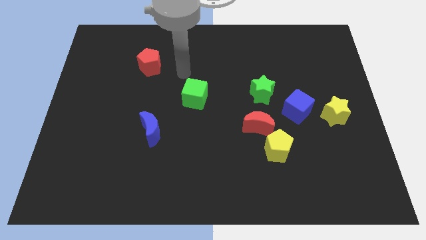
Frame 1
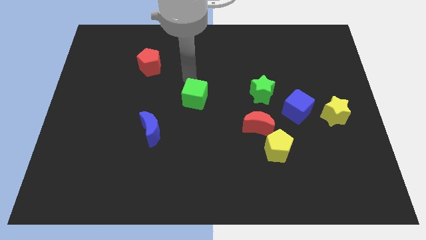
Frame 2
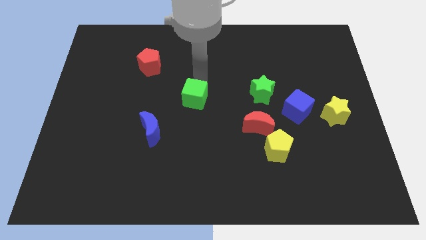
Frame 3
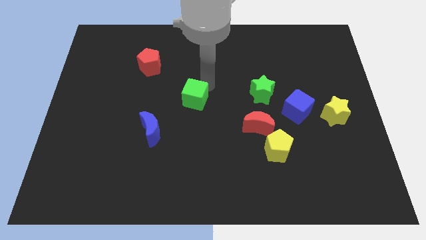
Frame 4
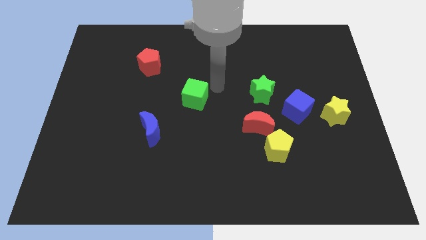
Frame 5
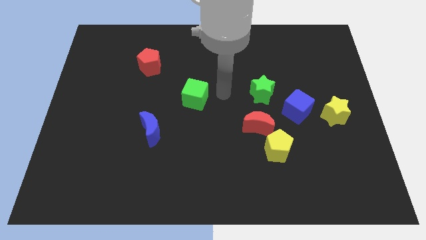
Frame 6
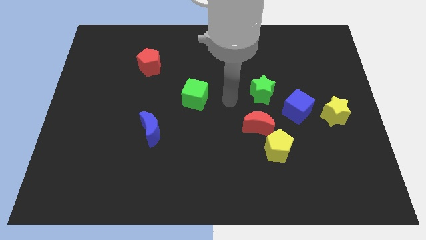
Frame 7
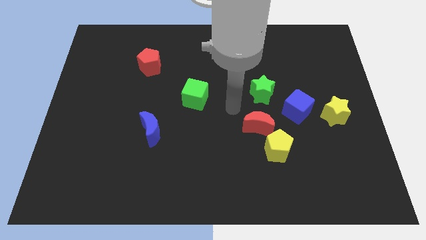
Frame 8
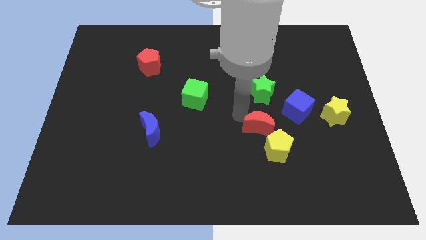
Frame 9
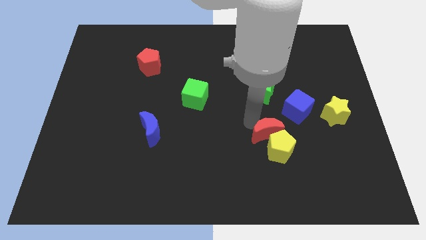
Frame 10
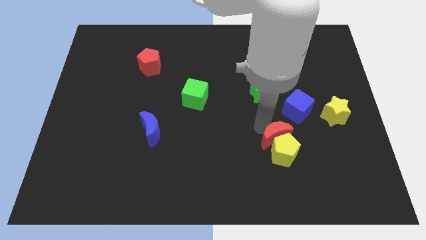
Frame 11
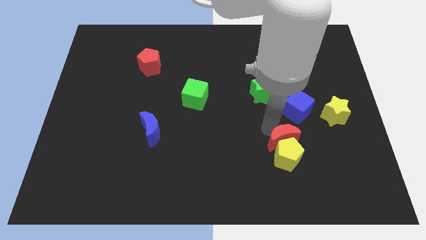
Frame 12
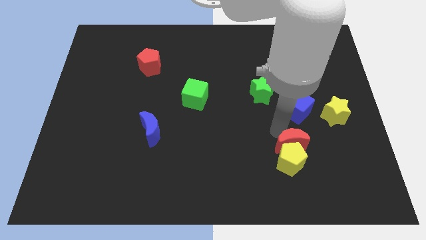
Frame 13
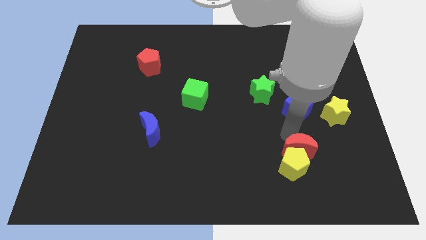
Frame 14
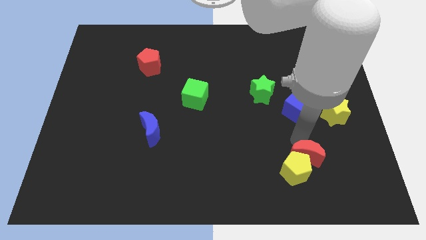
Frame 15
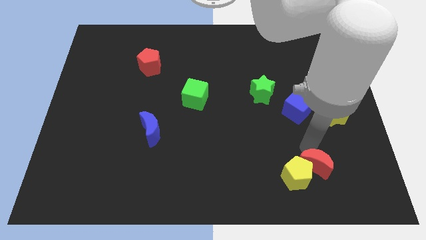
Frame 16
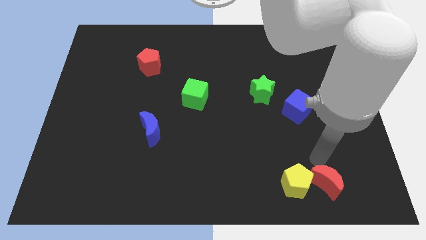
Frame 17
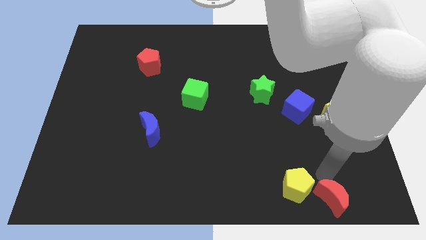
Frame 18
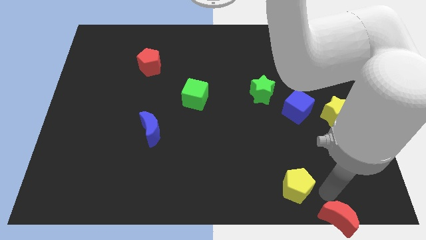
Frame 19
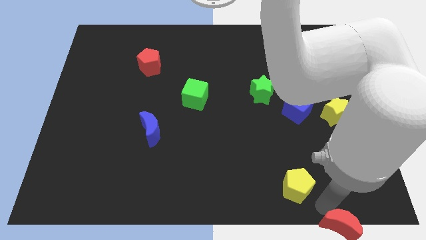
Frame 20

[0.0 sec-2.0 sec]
move the yellow pentagon away from the red moon

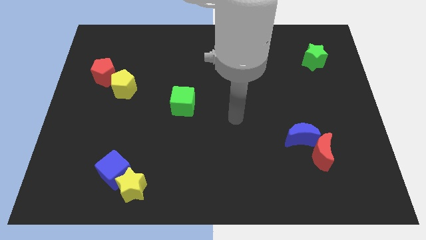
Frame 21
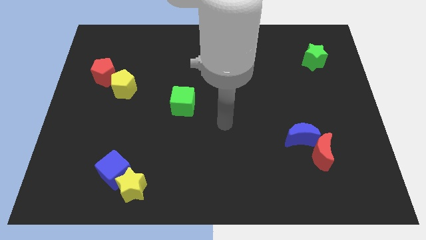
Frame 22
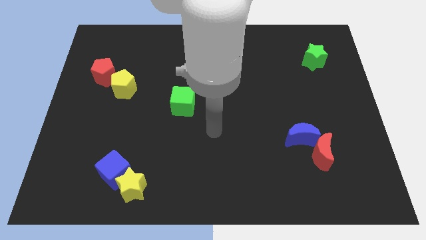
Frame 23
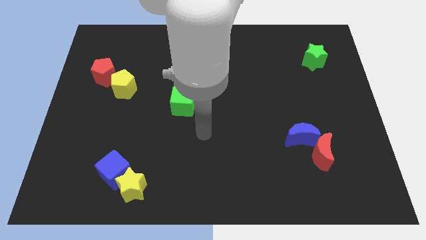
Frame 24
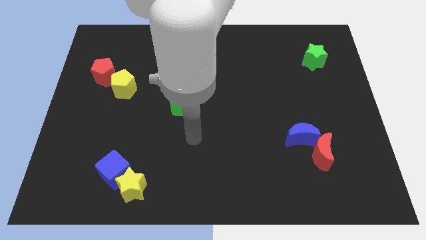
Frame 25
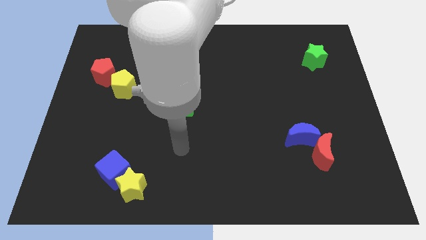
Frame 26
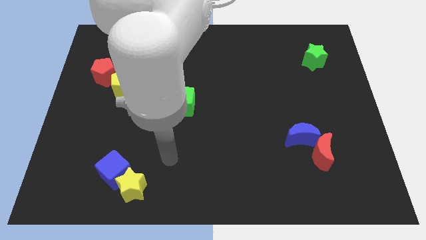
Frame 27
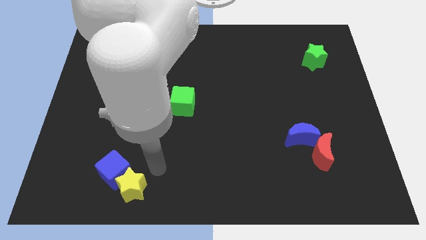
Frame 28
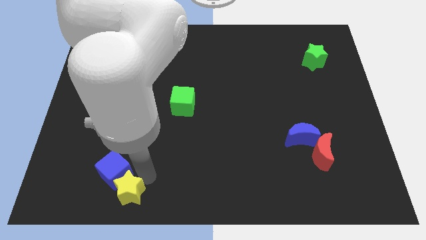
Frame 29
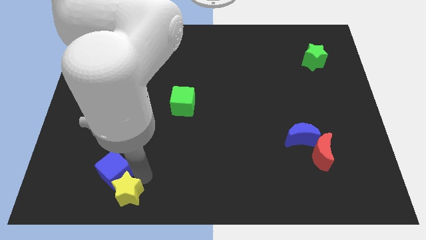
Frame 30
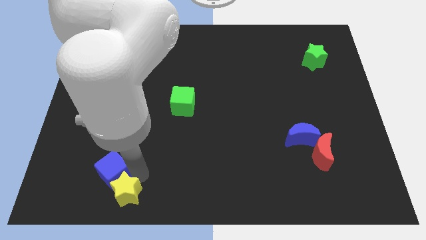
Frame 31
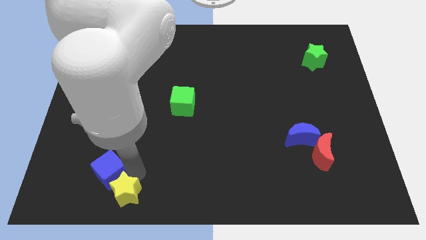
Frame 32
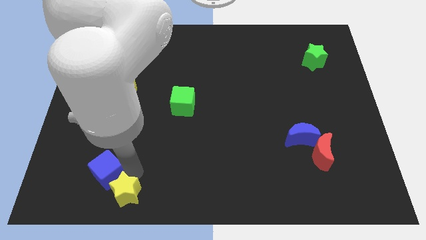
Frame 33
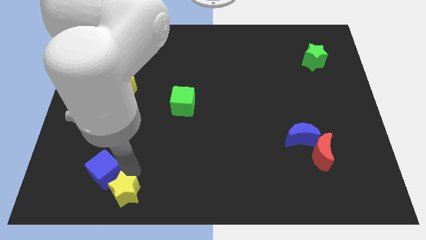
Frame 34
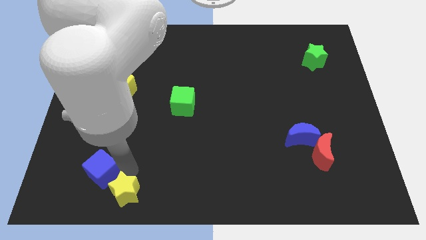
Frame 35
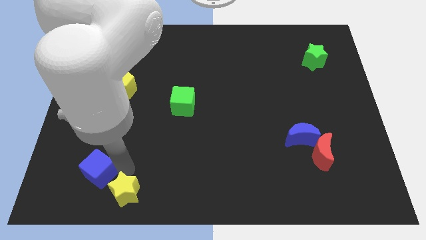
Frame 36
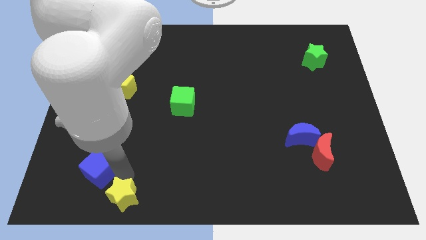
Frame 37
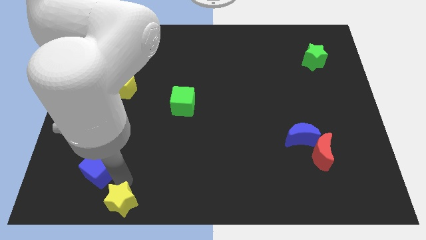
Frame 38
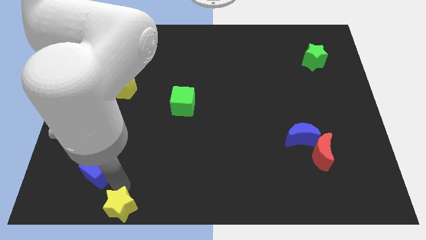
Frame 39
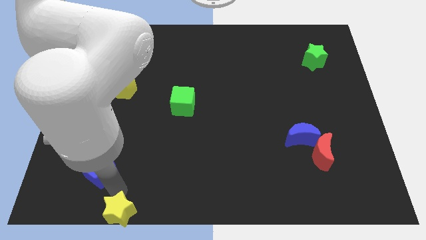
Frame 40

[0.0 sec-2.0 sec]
pull the blue cube apart from the yellow star

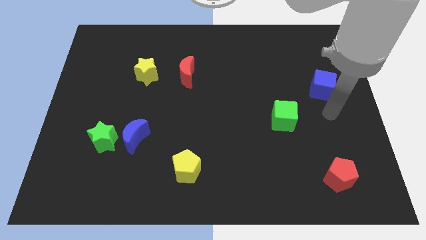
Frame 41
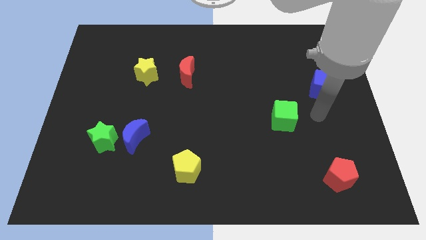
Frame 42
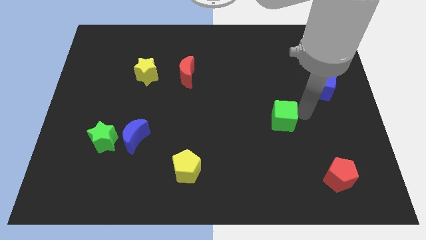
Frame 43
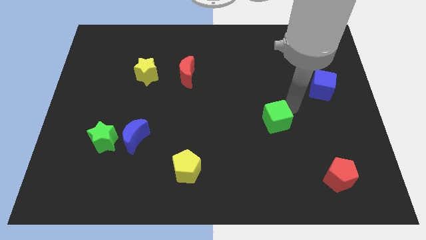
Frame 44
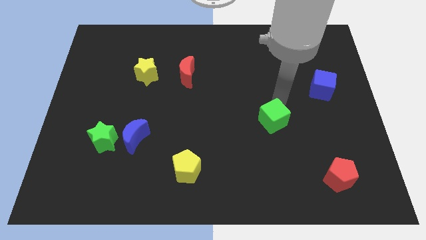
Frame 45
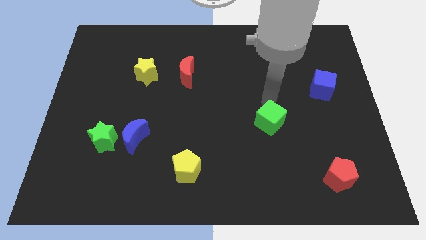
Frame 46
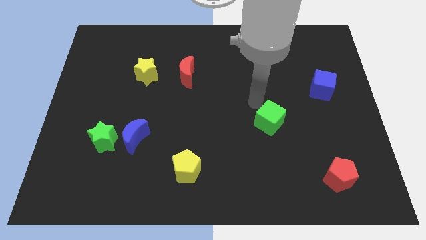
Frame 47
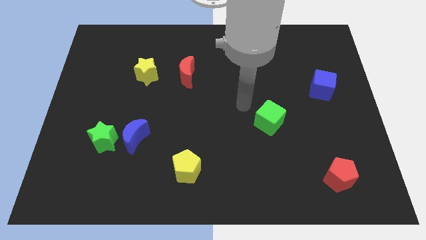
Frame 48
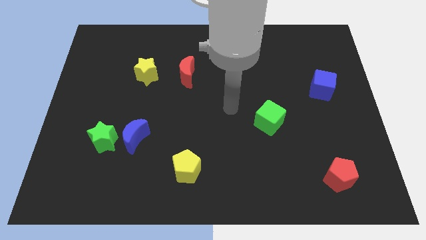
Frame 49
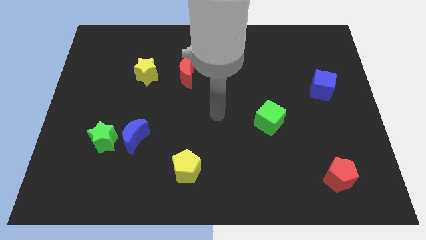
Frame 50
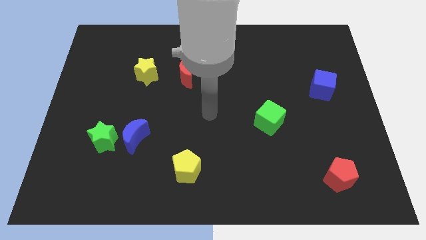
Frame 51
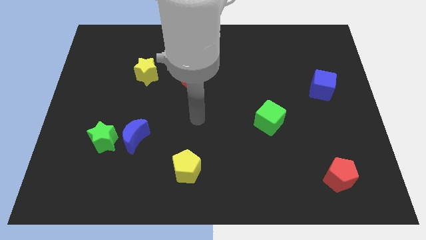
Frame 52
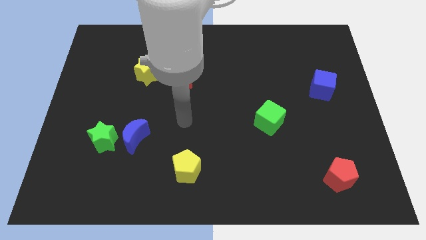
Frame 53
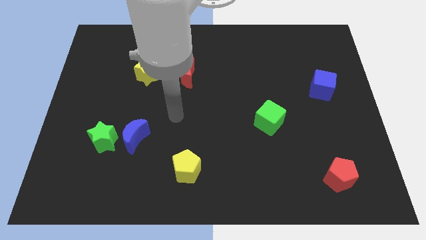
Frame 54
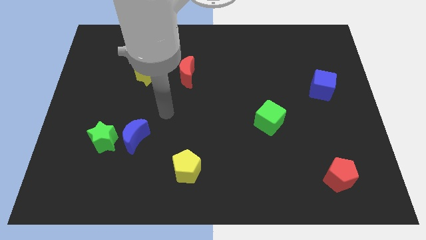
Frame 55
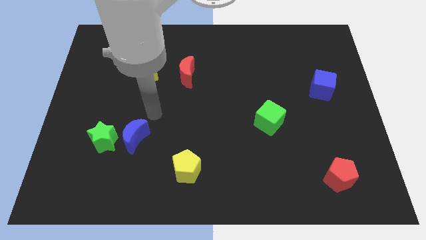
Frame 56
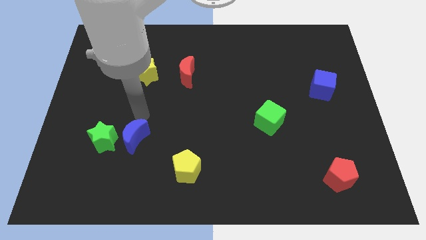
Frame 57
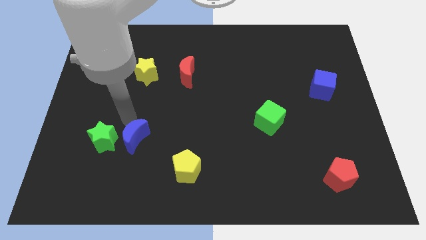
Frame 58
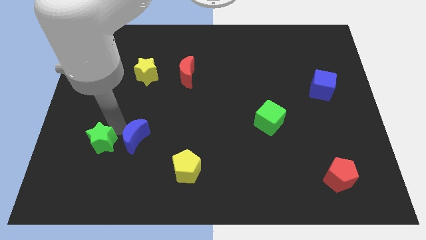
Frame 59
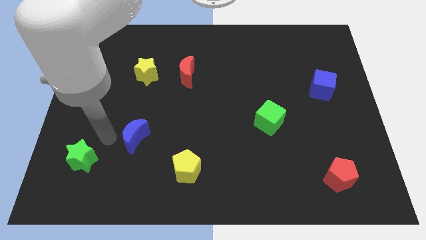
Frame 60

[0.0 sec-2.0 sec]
move the blue moon away from the green star

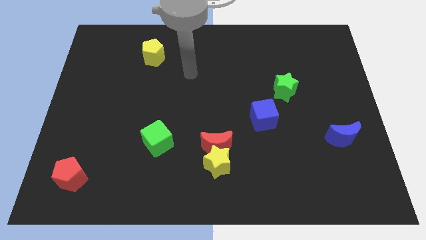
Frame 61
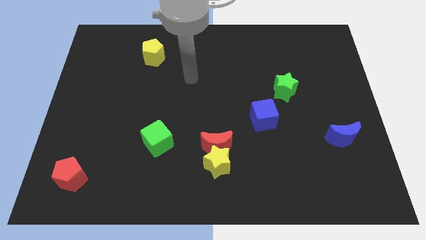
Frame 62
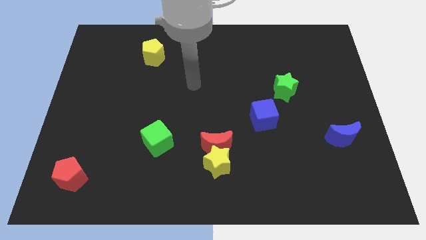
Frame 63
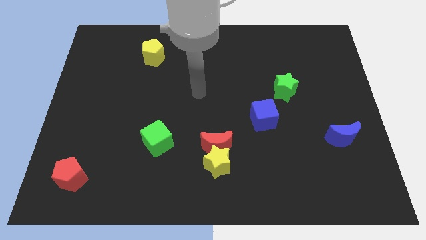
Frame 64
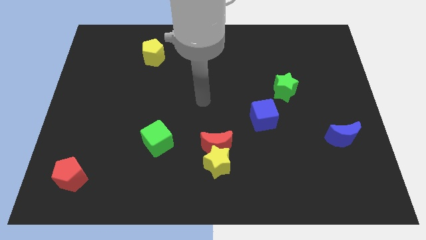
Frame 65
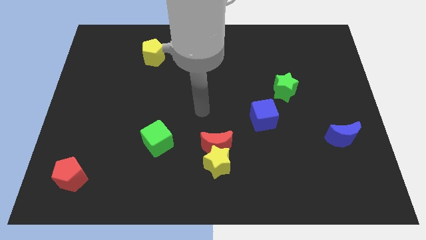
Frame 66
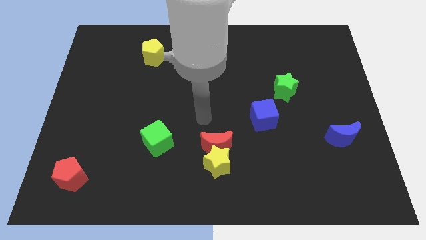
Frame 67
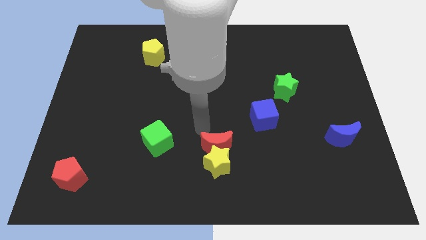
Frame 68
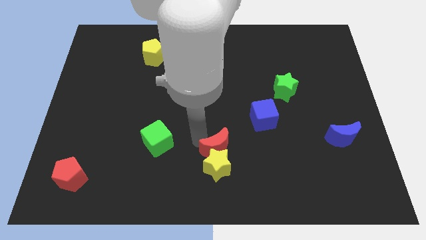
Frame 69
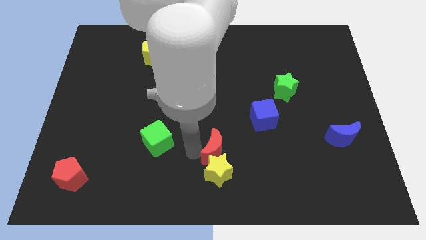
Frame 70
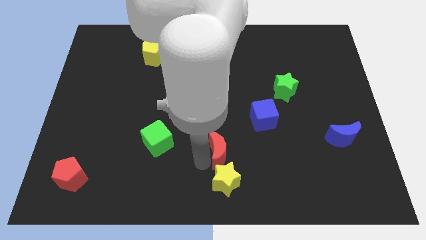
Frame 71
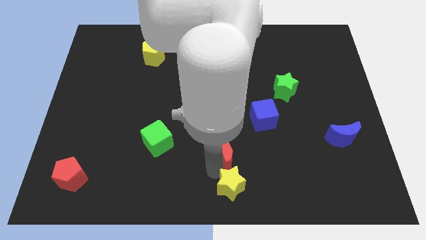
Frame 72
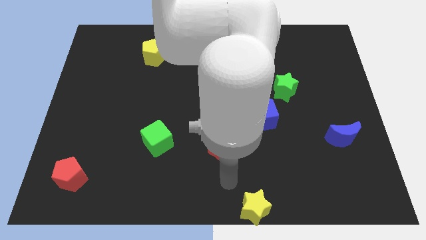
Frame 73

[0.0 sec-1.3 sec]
separate the red moon from the yellow star

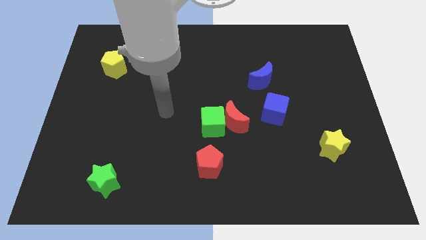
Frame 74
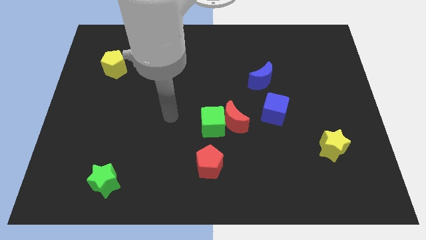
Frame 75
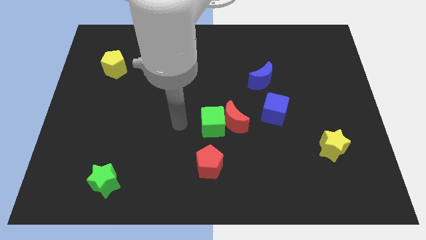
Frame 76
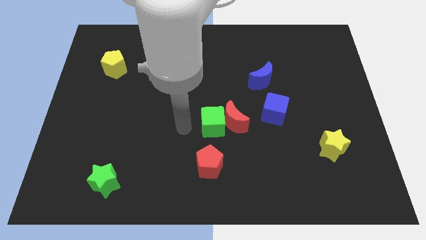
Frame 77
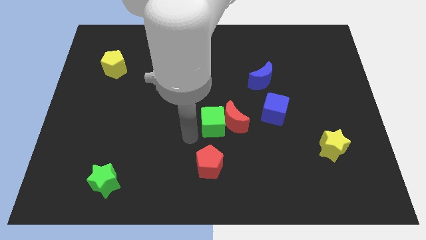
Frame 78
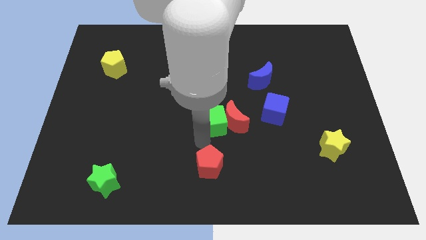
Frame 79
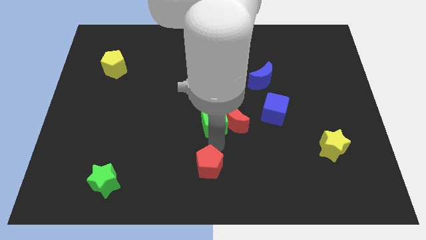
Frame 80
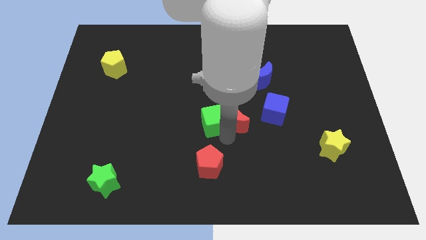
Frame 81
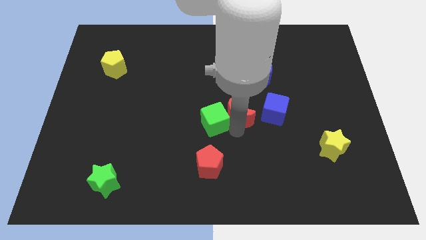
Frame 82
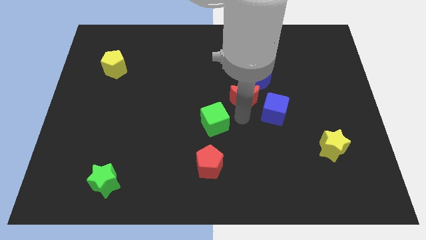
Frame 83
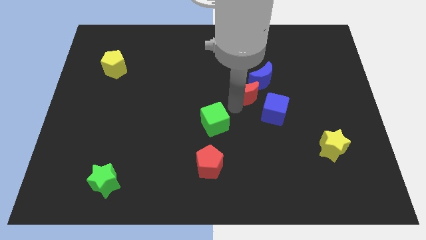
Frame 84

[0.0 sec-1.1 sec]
separate the green cube from the red moon

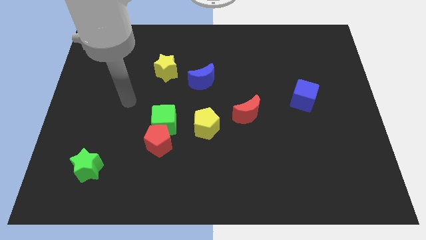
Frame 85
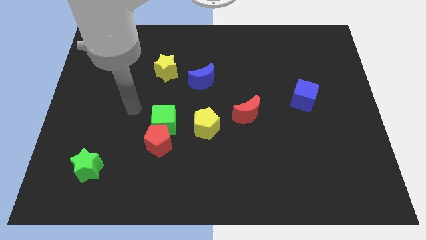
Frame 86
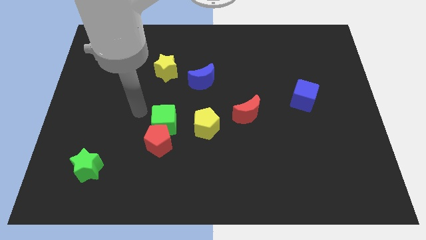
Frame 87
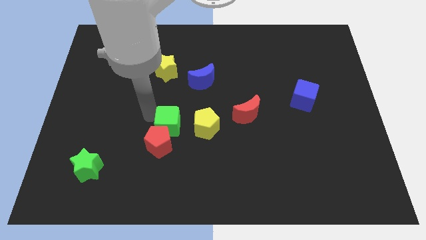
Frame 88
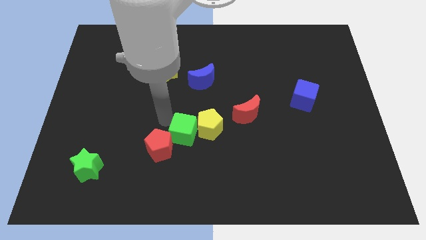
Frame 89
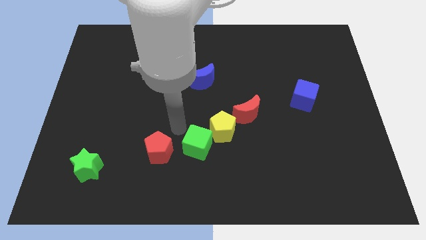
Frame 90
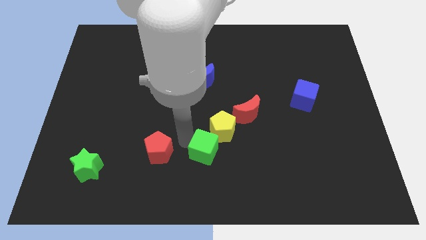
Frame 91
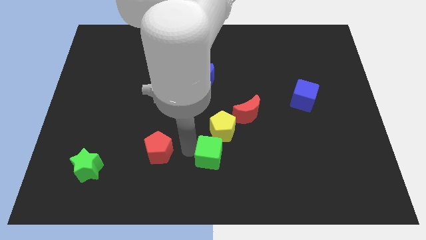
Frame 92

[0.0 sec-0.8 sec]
move the red pentagon away from the green cube

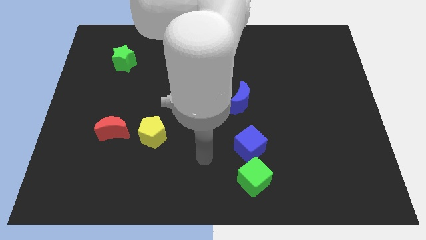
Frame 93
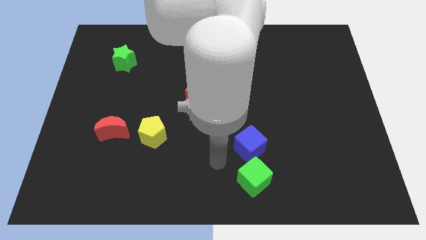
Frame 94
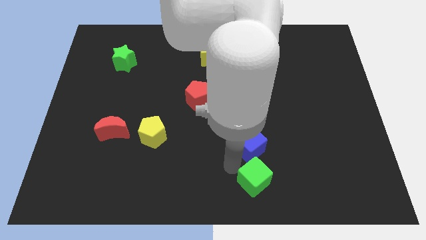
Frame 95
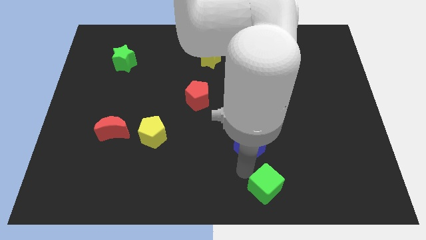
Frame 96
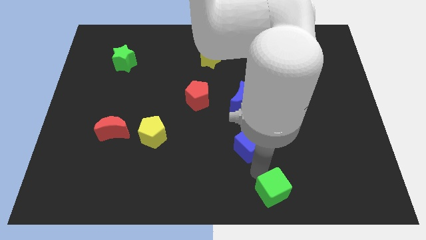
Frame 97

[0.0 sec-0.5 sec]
separate the blue cube from the green cube
